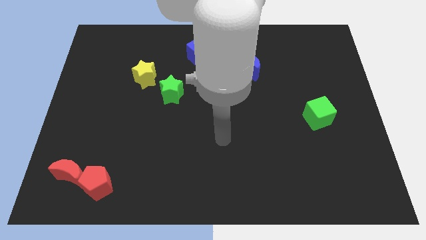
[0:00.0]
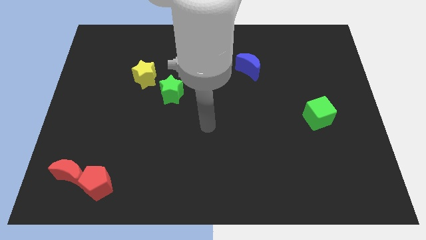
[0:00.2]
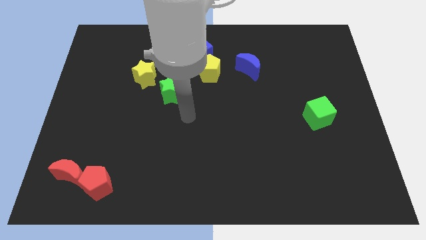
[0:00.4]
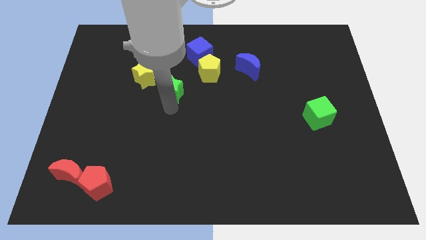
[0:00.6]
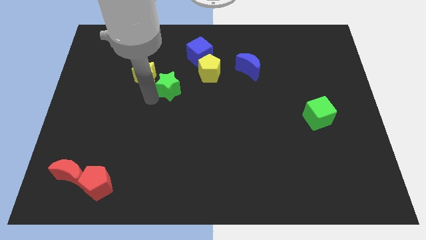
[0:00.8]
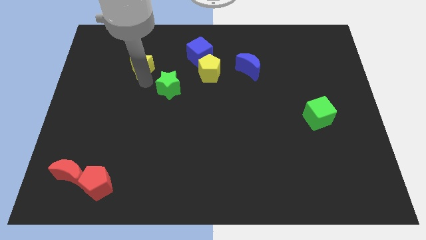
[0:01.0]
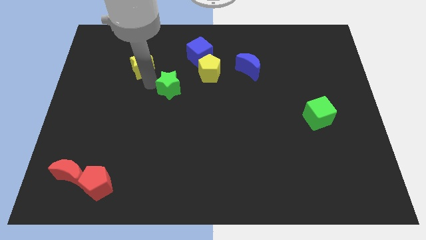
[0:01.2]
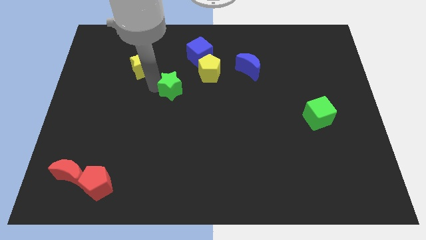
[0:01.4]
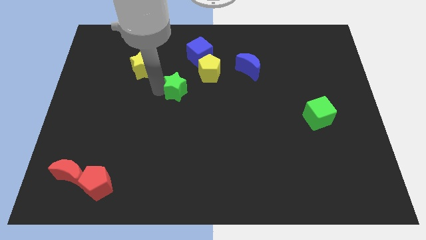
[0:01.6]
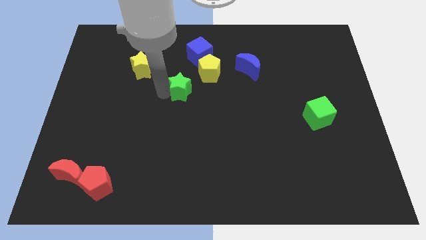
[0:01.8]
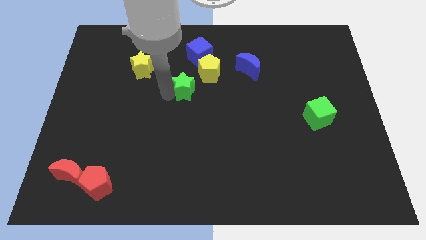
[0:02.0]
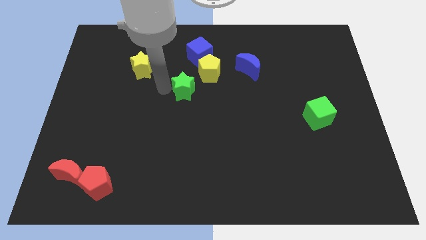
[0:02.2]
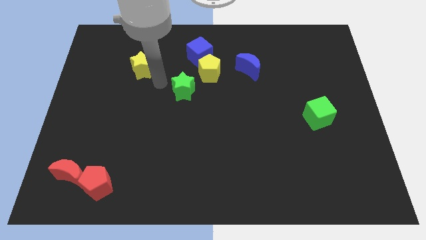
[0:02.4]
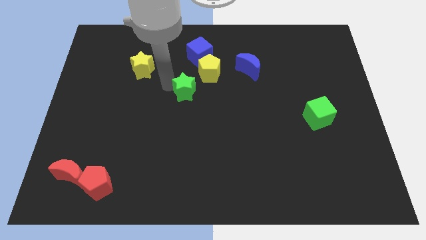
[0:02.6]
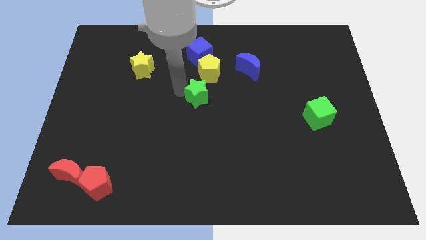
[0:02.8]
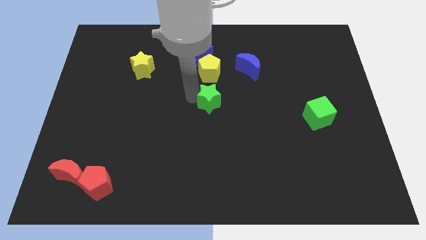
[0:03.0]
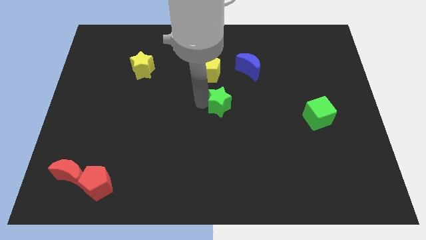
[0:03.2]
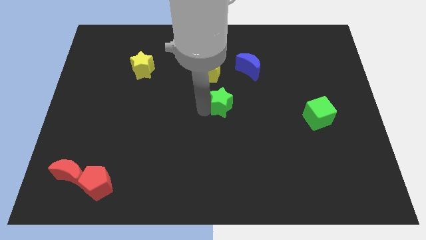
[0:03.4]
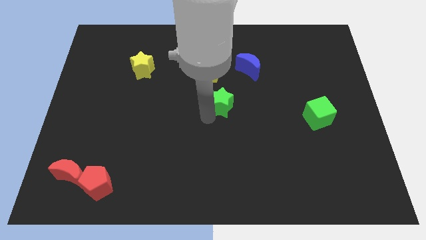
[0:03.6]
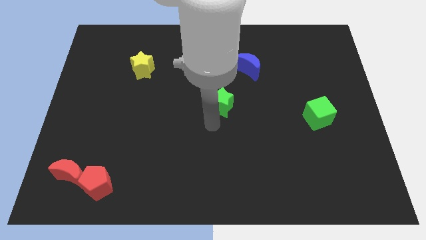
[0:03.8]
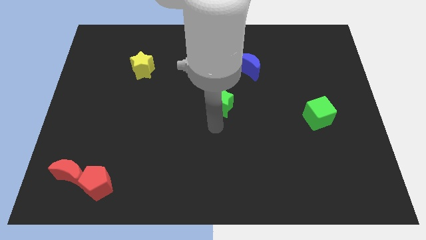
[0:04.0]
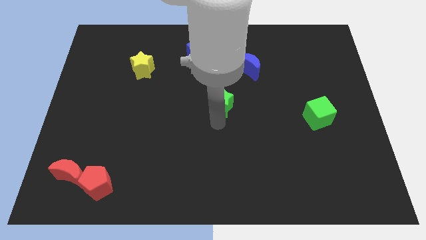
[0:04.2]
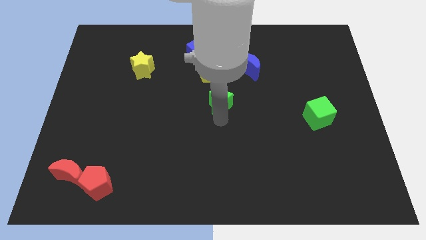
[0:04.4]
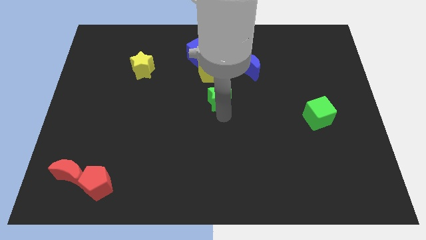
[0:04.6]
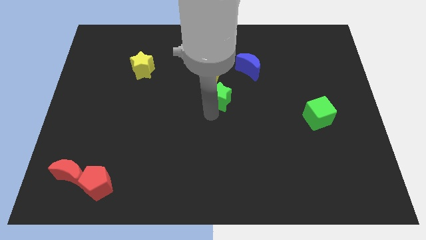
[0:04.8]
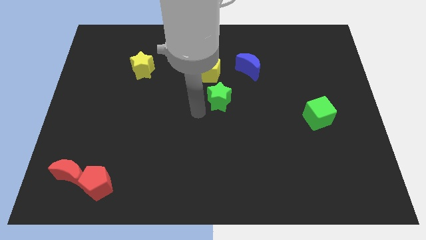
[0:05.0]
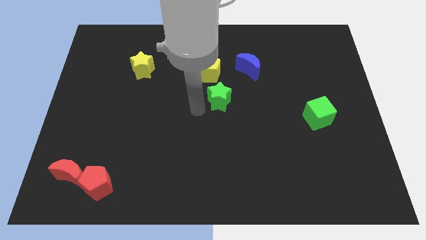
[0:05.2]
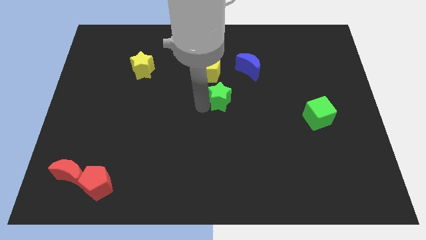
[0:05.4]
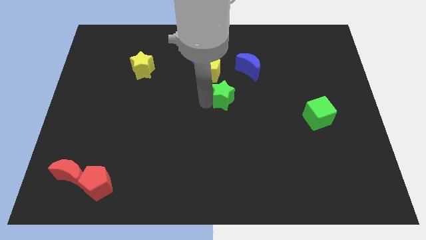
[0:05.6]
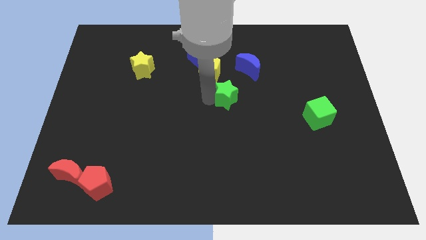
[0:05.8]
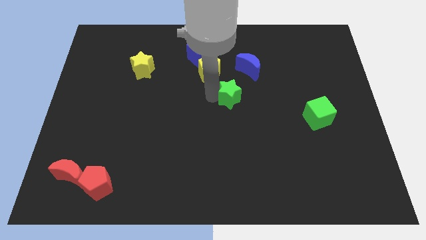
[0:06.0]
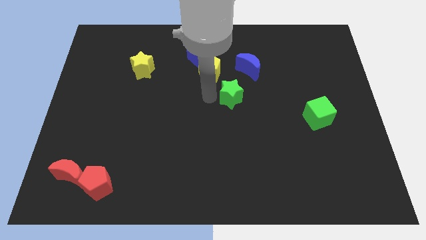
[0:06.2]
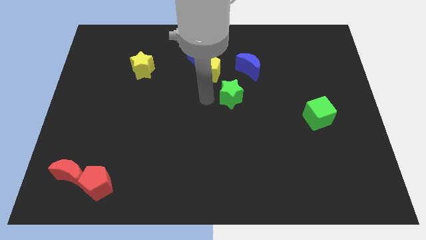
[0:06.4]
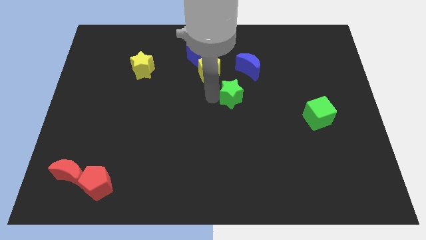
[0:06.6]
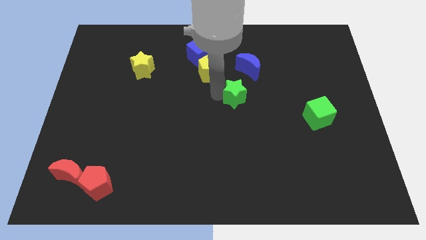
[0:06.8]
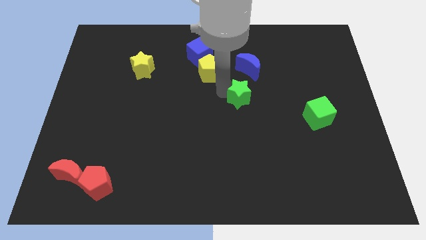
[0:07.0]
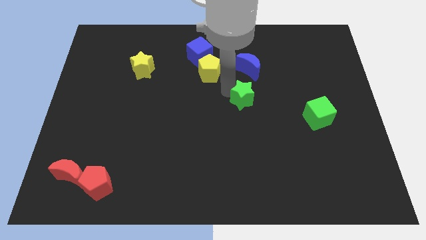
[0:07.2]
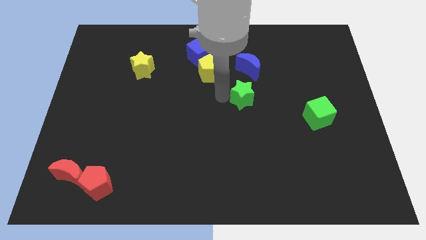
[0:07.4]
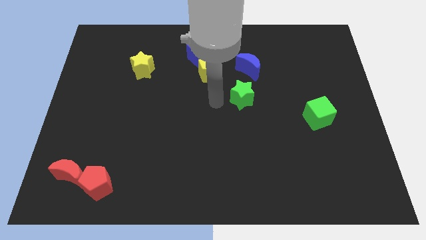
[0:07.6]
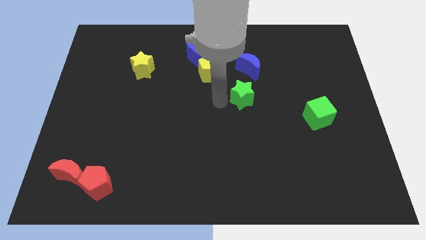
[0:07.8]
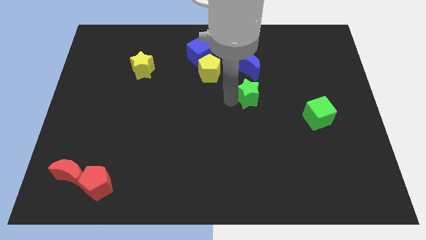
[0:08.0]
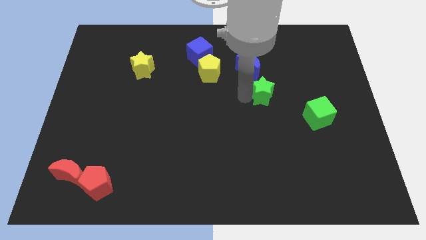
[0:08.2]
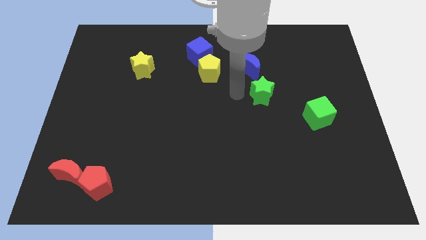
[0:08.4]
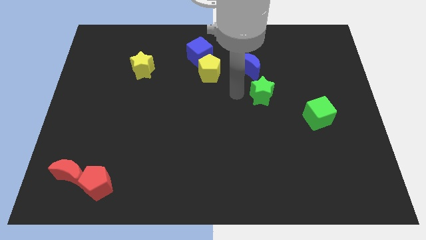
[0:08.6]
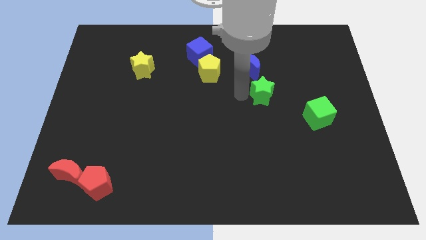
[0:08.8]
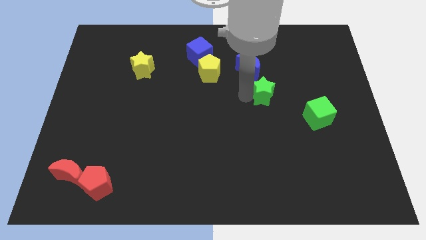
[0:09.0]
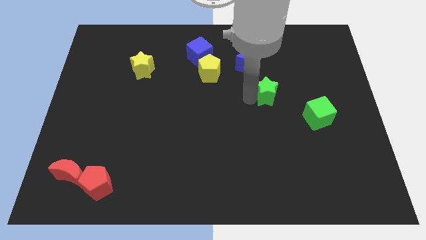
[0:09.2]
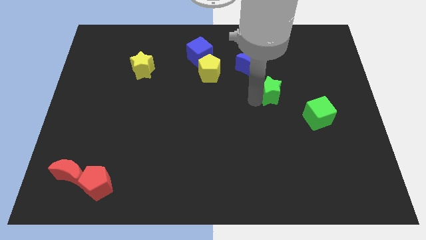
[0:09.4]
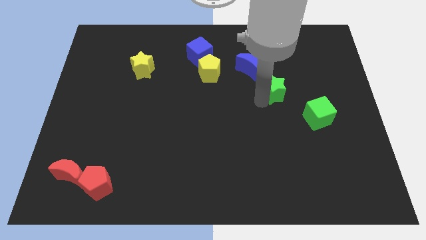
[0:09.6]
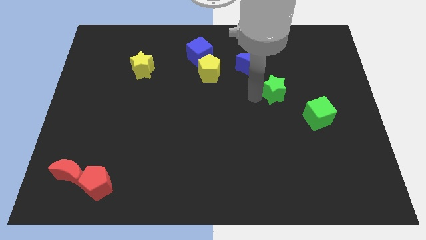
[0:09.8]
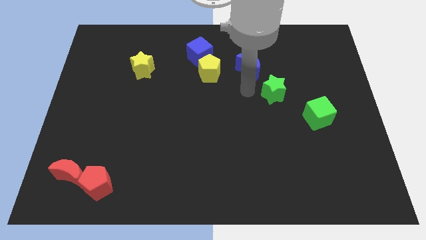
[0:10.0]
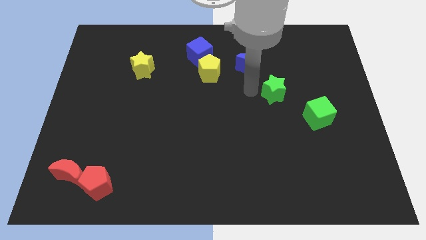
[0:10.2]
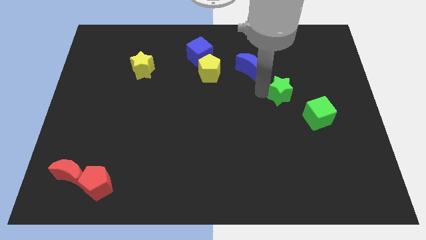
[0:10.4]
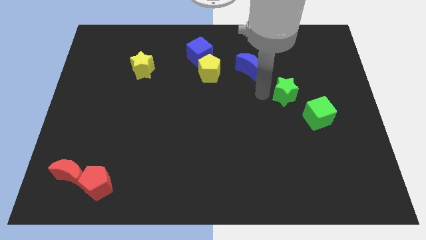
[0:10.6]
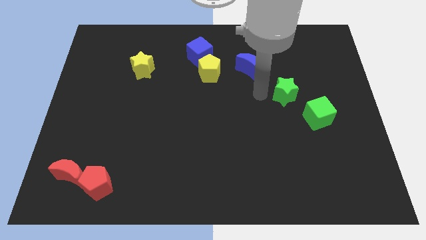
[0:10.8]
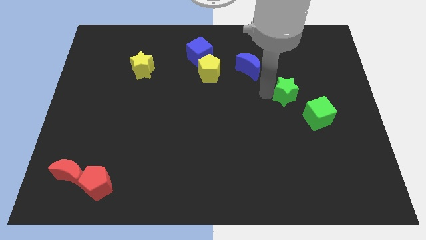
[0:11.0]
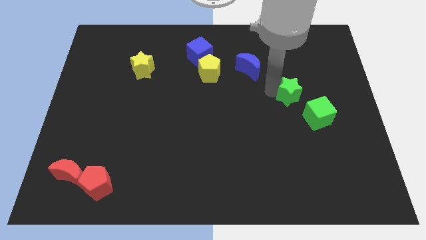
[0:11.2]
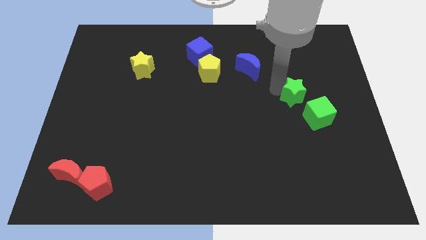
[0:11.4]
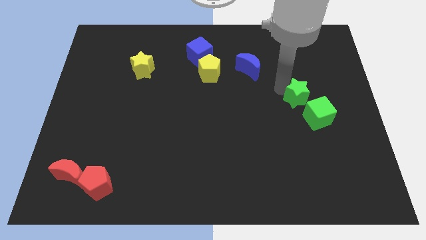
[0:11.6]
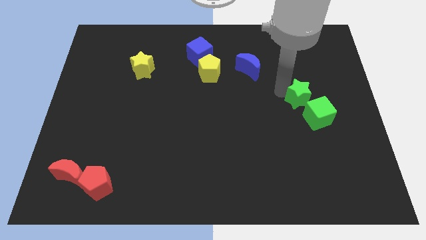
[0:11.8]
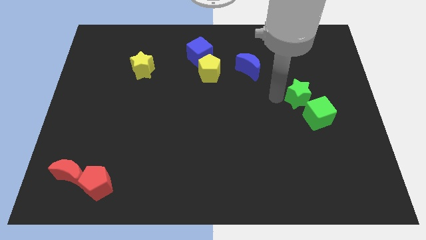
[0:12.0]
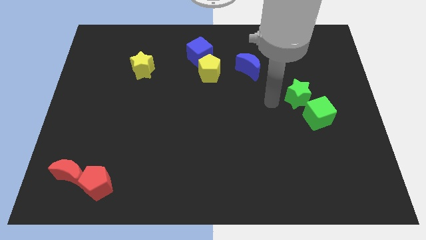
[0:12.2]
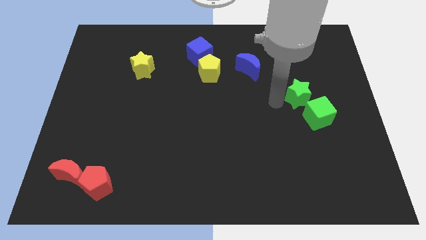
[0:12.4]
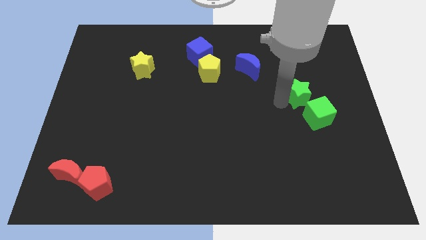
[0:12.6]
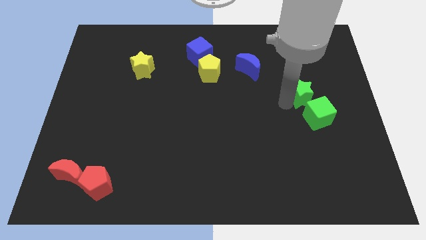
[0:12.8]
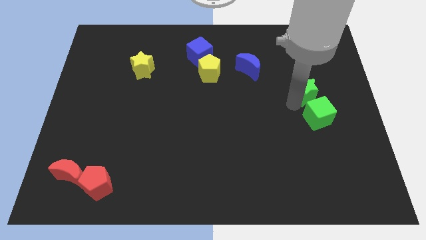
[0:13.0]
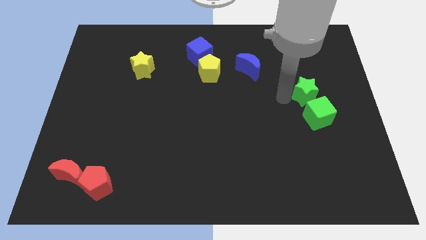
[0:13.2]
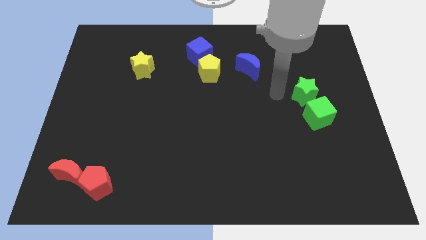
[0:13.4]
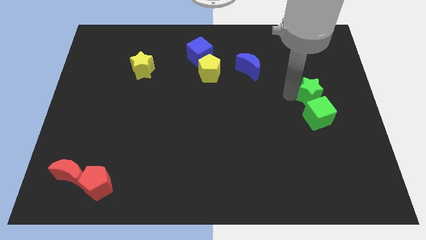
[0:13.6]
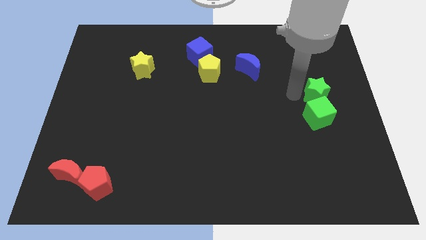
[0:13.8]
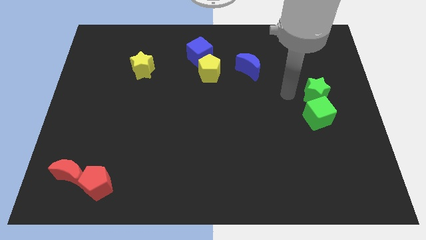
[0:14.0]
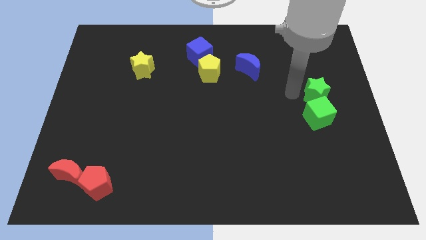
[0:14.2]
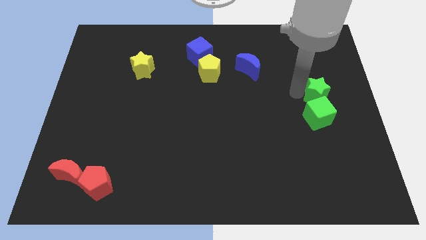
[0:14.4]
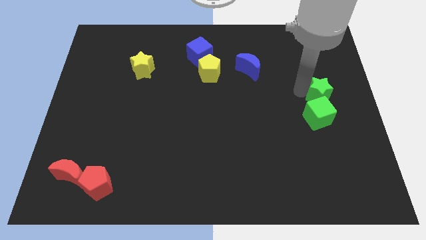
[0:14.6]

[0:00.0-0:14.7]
slide the green star to the right side of the board
